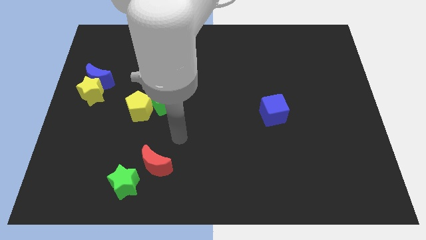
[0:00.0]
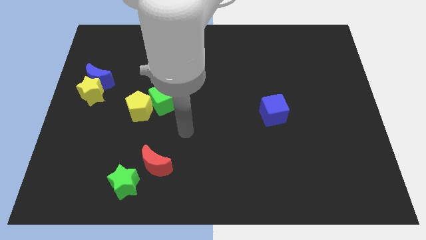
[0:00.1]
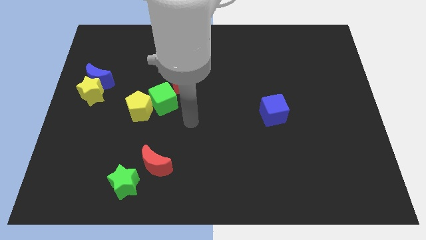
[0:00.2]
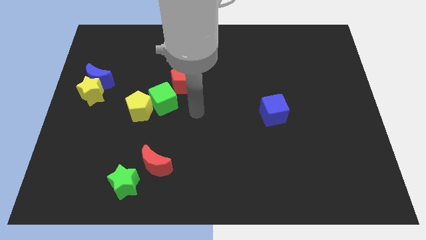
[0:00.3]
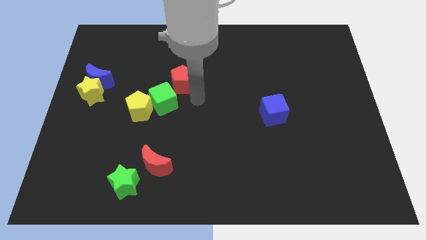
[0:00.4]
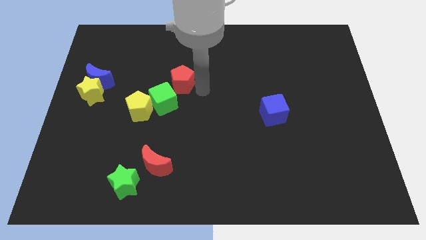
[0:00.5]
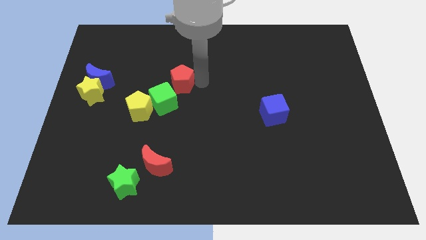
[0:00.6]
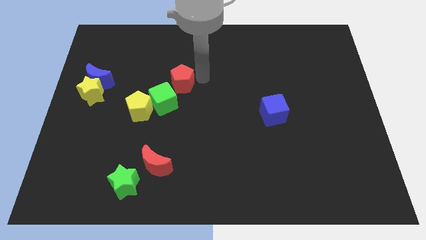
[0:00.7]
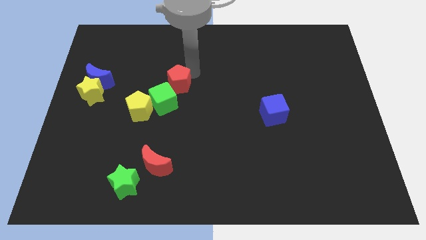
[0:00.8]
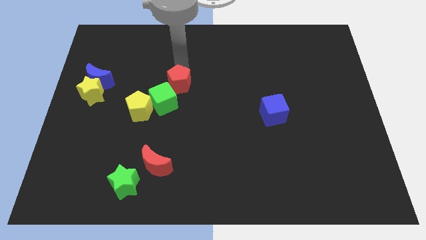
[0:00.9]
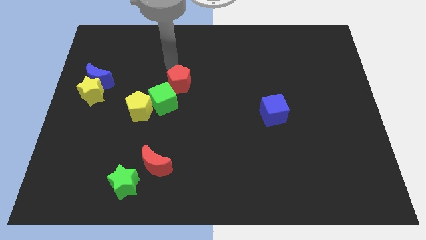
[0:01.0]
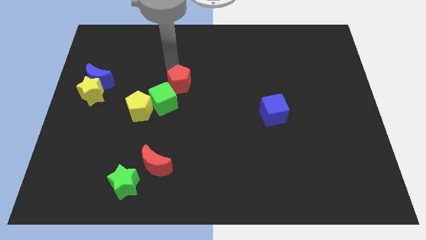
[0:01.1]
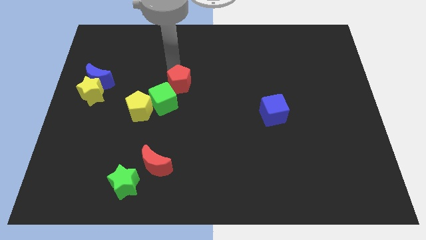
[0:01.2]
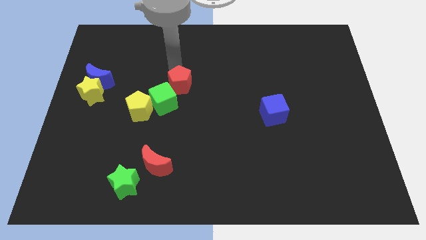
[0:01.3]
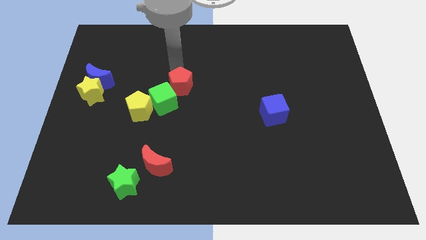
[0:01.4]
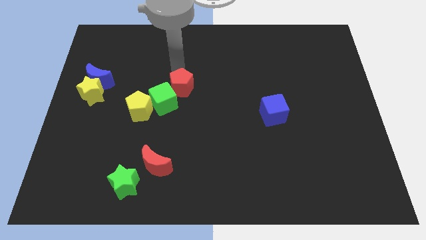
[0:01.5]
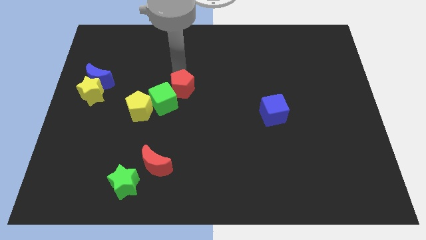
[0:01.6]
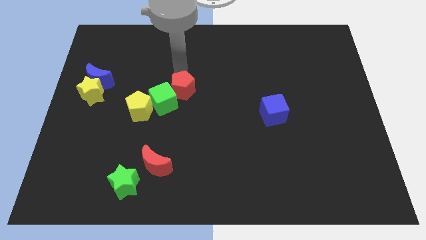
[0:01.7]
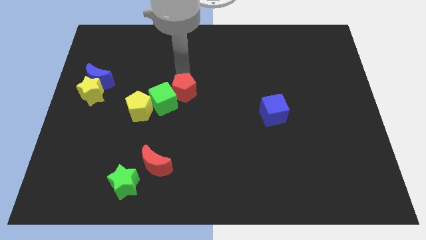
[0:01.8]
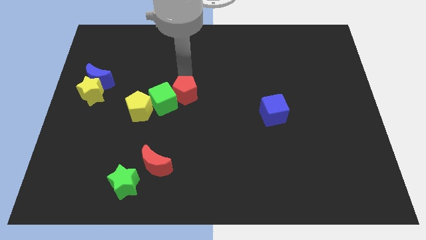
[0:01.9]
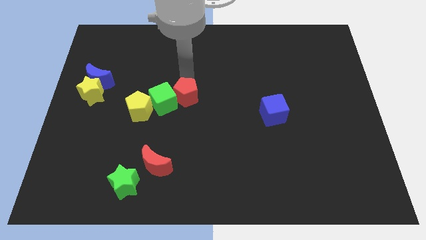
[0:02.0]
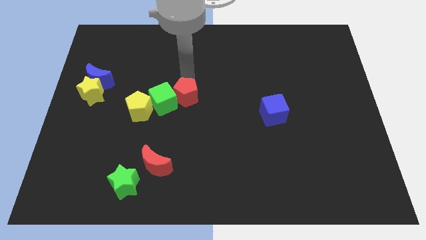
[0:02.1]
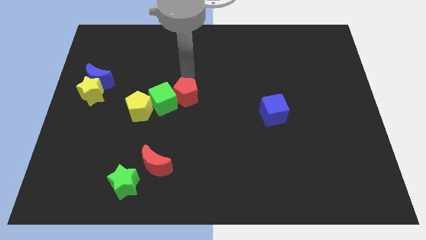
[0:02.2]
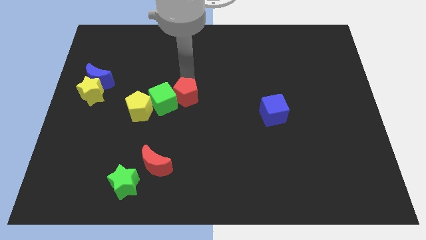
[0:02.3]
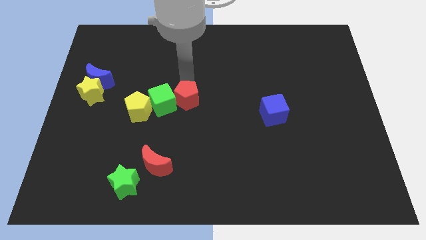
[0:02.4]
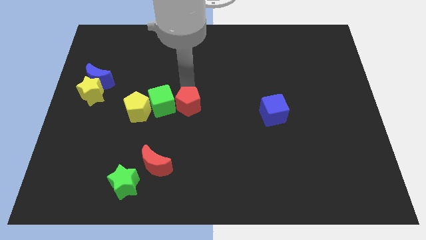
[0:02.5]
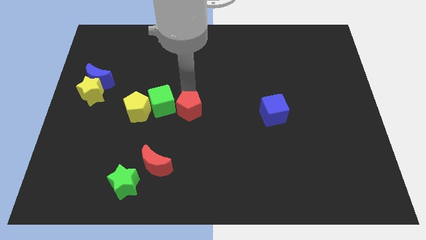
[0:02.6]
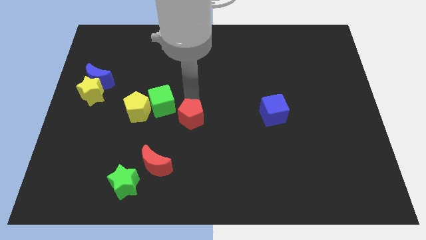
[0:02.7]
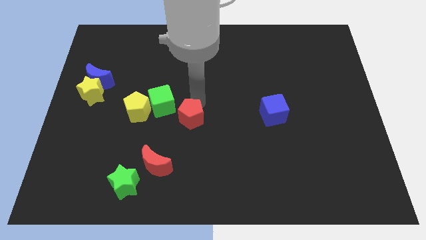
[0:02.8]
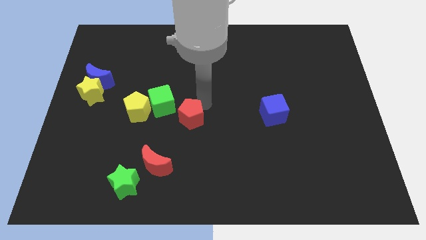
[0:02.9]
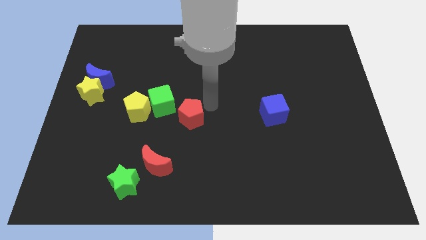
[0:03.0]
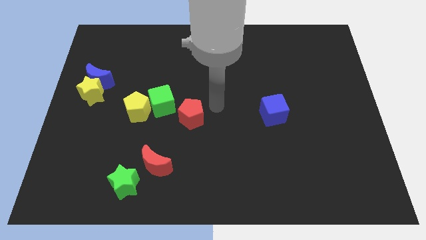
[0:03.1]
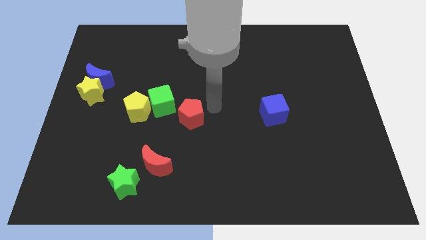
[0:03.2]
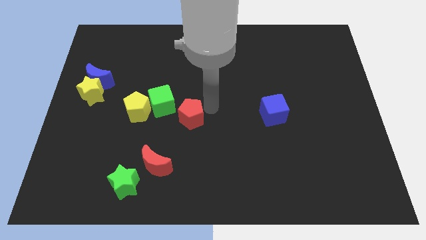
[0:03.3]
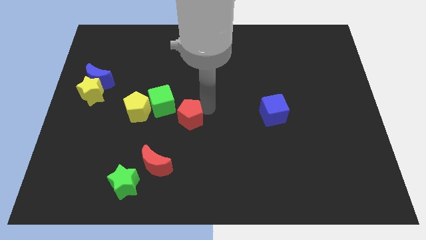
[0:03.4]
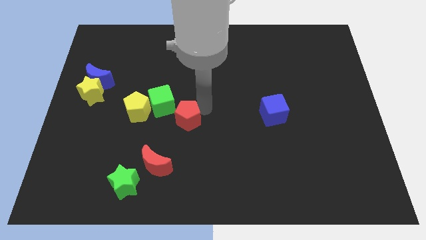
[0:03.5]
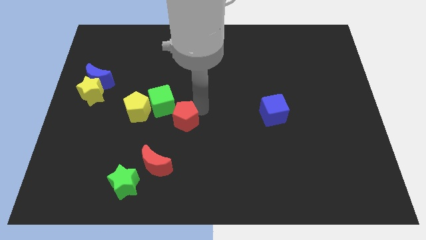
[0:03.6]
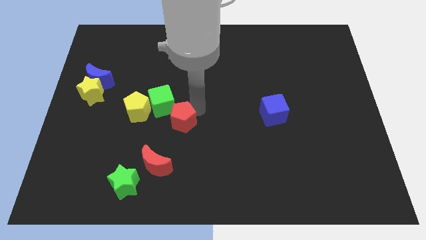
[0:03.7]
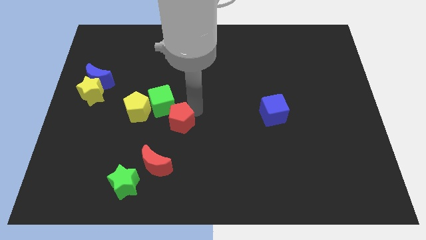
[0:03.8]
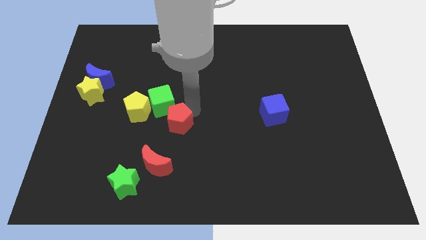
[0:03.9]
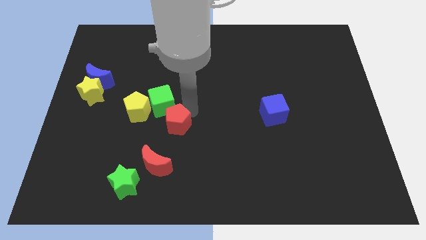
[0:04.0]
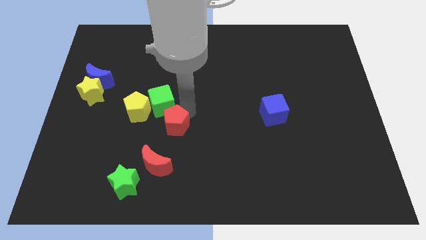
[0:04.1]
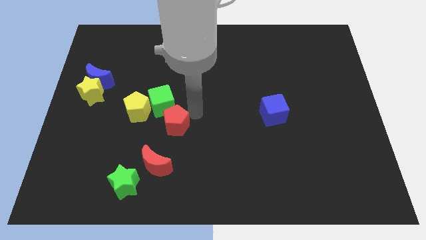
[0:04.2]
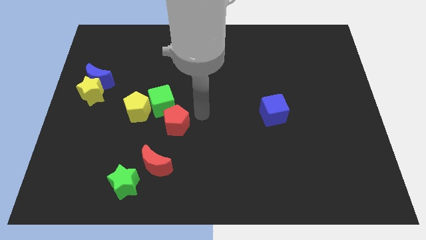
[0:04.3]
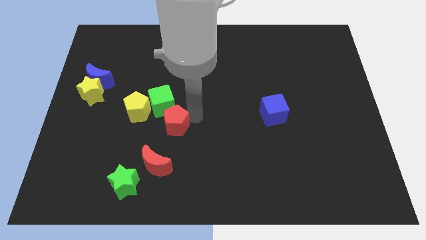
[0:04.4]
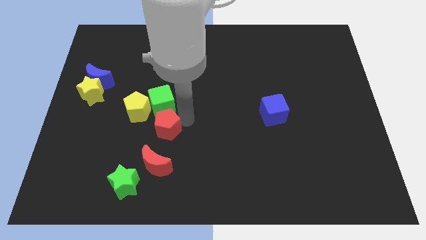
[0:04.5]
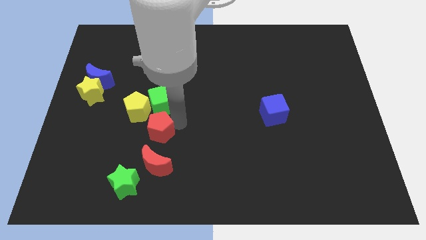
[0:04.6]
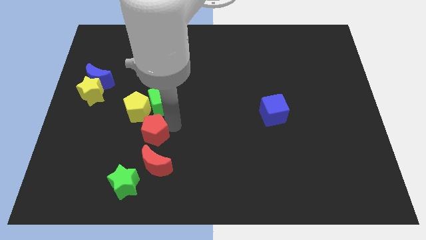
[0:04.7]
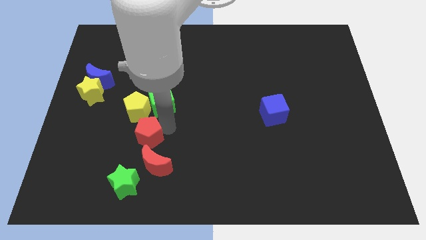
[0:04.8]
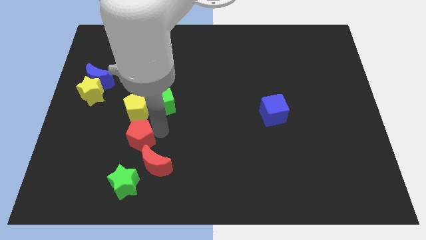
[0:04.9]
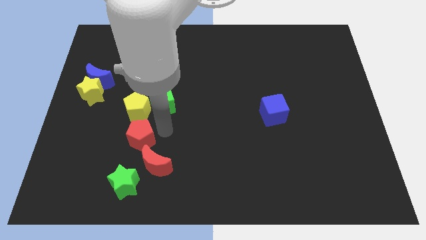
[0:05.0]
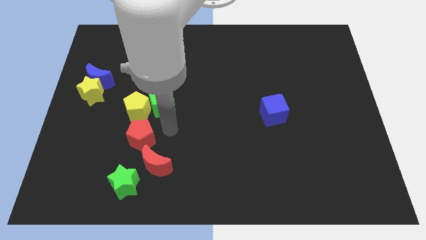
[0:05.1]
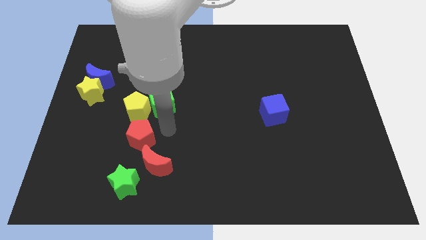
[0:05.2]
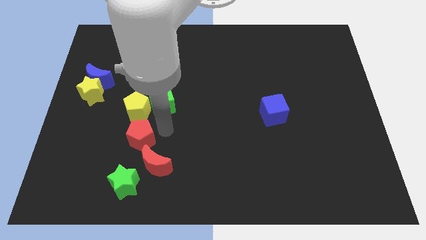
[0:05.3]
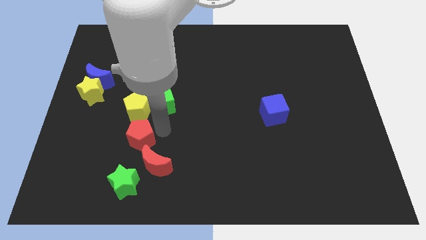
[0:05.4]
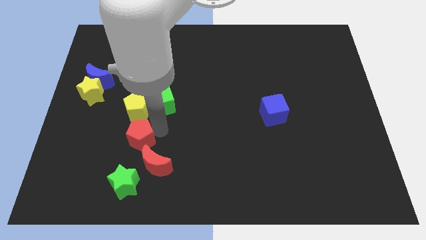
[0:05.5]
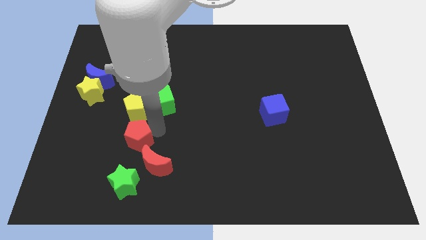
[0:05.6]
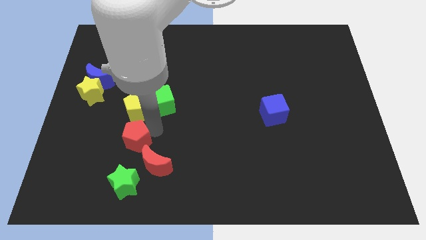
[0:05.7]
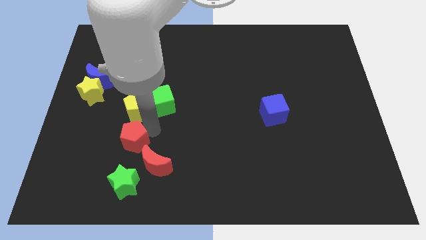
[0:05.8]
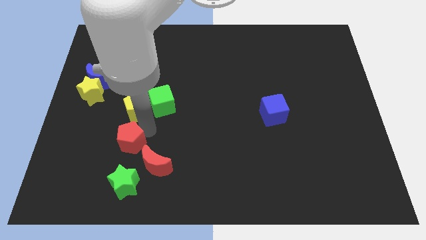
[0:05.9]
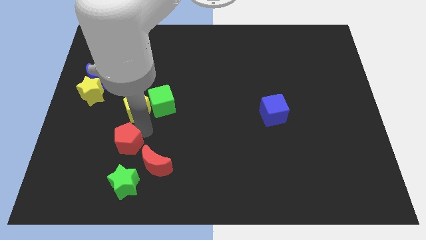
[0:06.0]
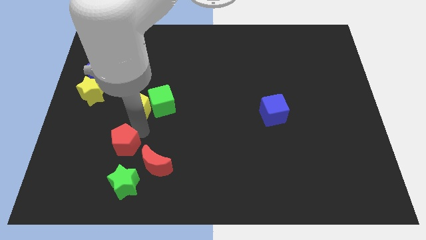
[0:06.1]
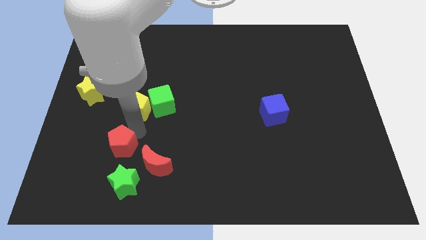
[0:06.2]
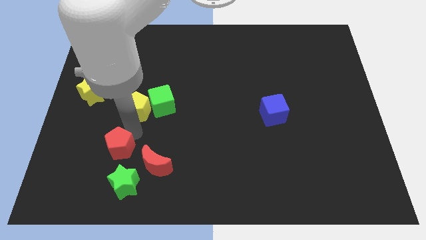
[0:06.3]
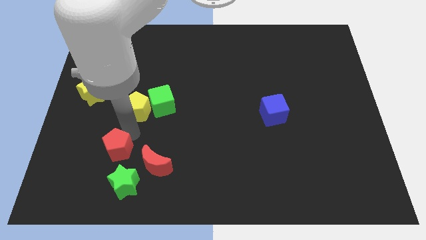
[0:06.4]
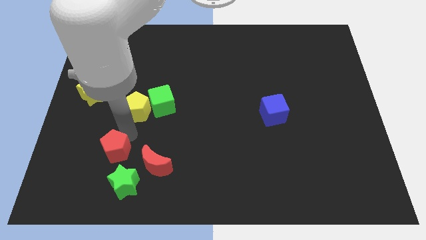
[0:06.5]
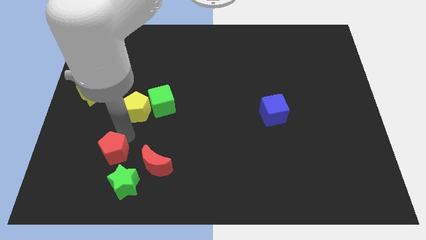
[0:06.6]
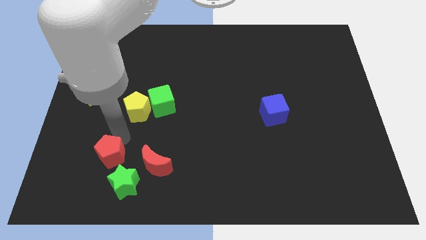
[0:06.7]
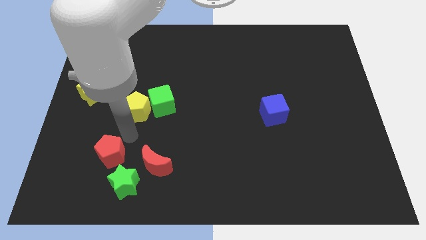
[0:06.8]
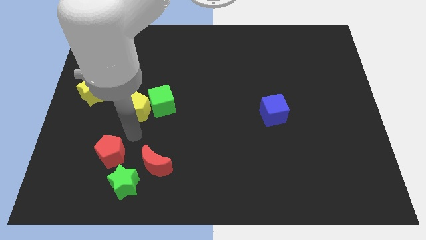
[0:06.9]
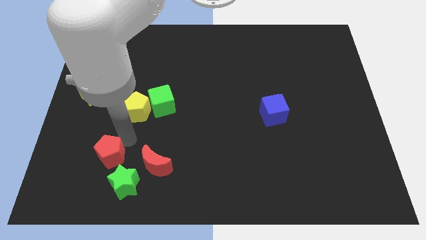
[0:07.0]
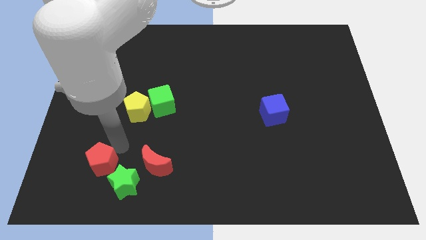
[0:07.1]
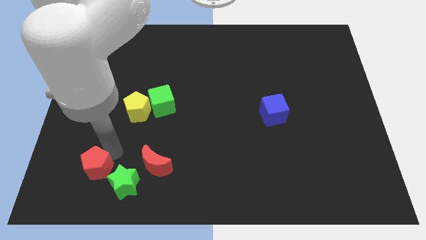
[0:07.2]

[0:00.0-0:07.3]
put the red pentagon to the left of the green star
